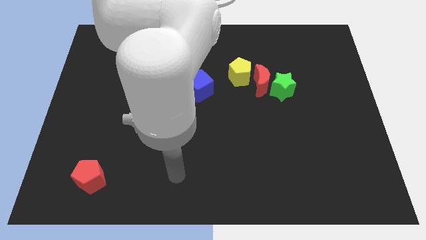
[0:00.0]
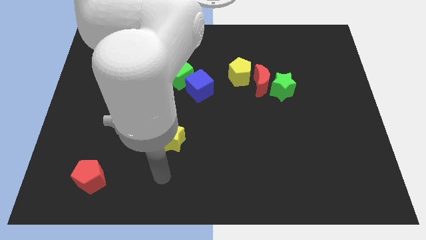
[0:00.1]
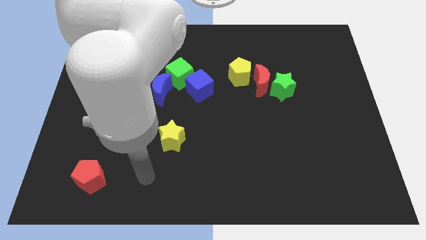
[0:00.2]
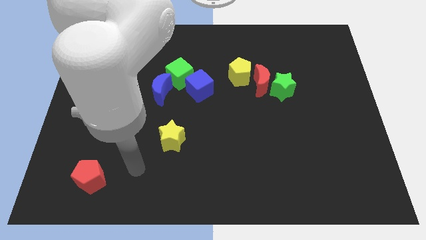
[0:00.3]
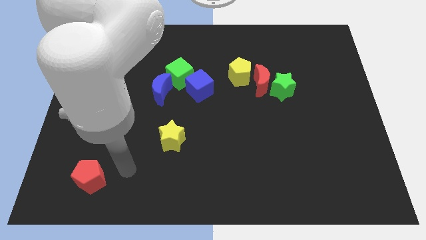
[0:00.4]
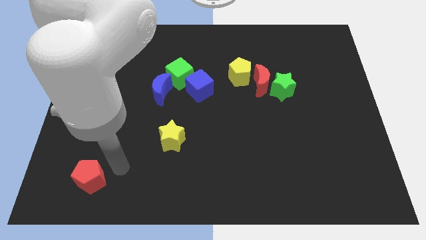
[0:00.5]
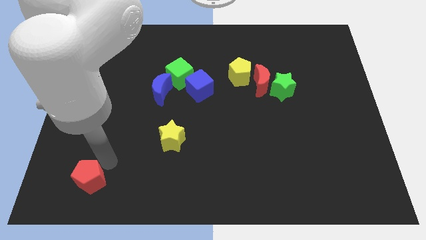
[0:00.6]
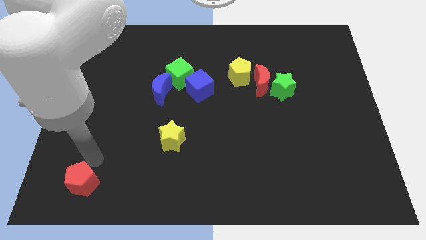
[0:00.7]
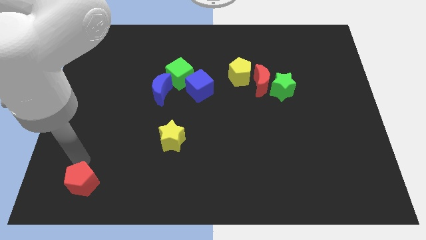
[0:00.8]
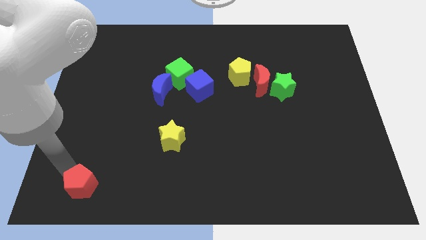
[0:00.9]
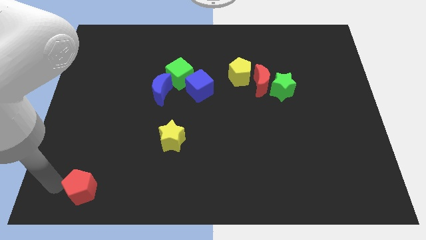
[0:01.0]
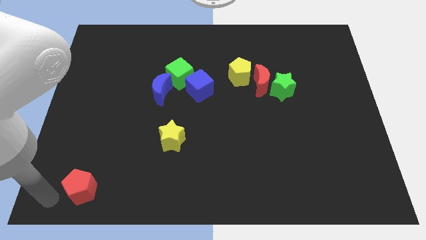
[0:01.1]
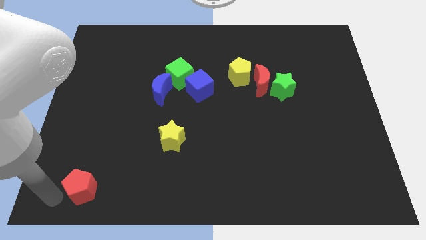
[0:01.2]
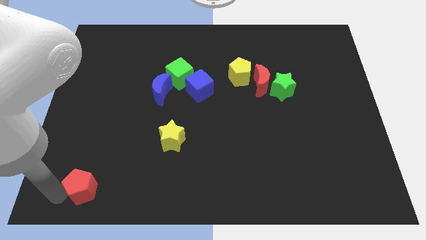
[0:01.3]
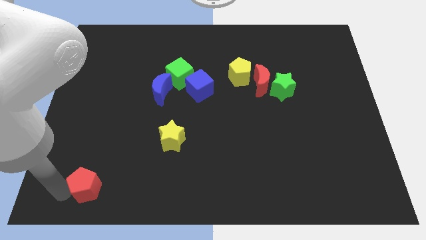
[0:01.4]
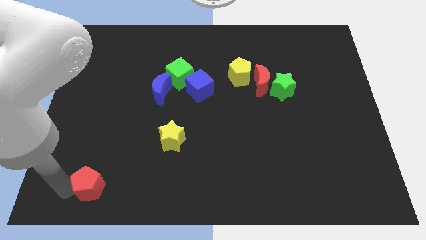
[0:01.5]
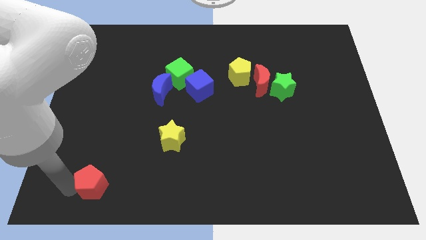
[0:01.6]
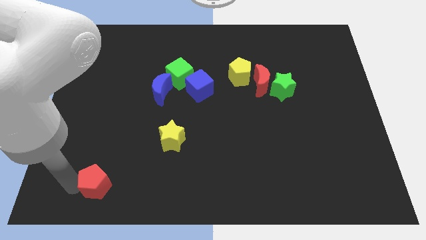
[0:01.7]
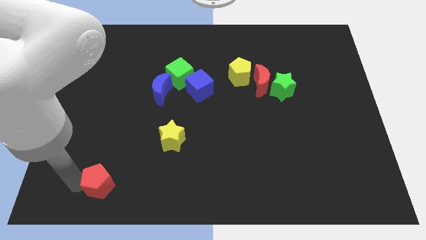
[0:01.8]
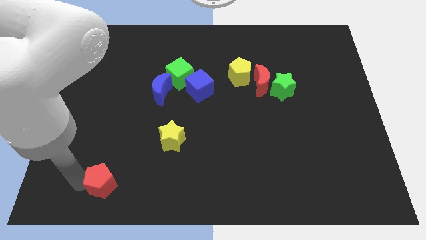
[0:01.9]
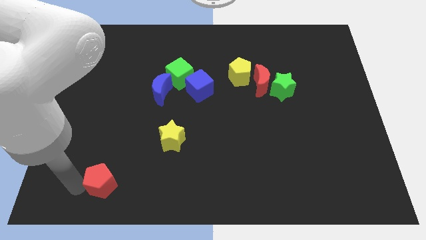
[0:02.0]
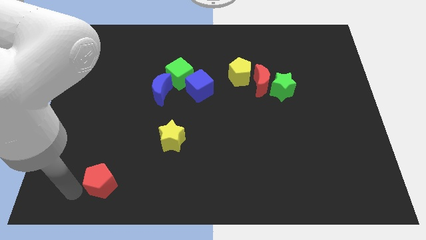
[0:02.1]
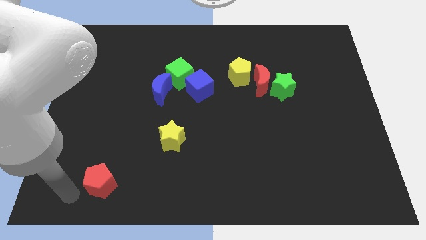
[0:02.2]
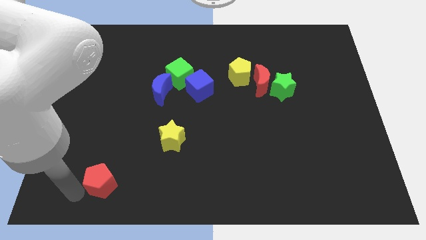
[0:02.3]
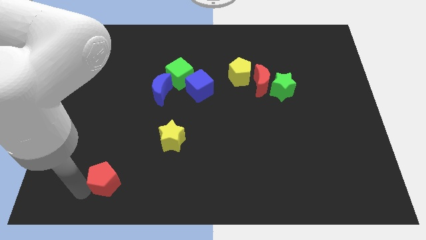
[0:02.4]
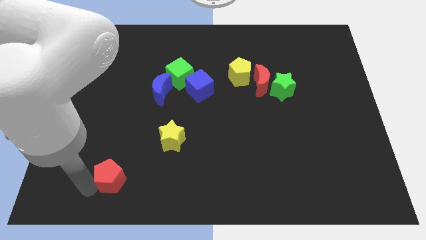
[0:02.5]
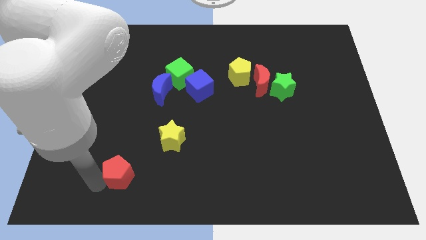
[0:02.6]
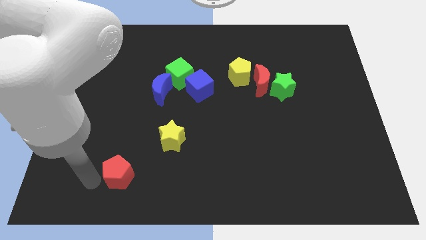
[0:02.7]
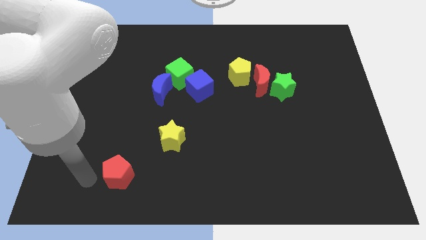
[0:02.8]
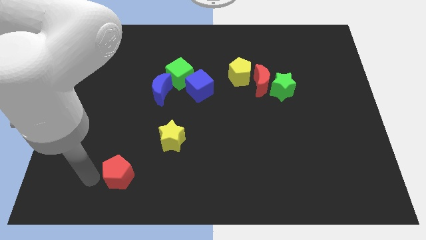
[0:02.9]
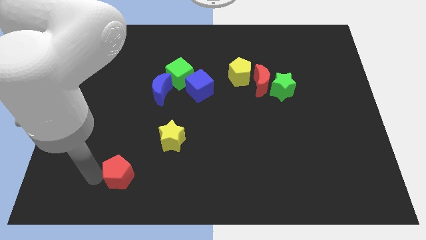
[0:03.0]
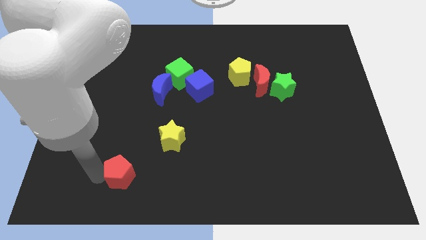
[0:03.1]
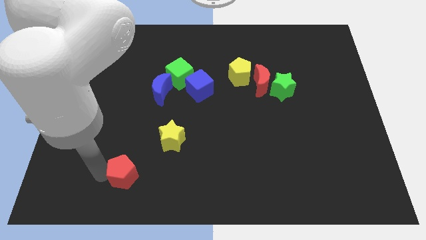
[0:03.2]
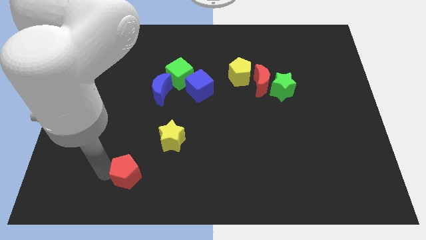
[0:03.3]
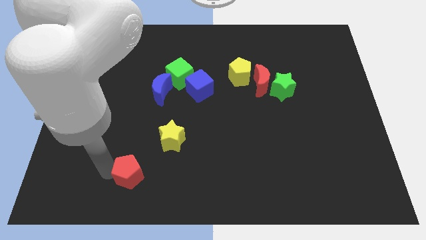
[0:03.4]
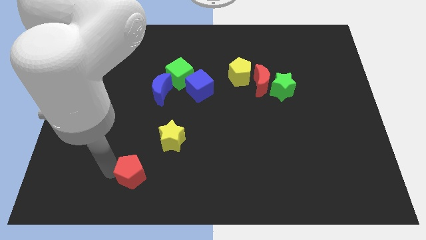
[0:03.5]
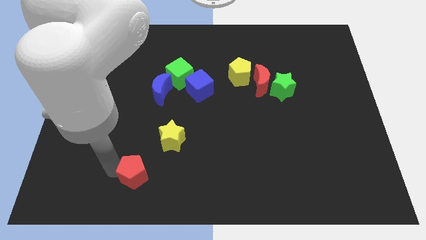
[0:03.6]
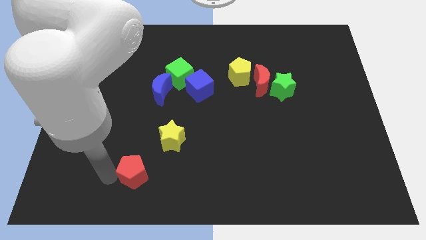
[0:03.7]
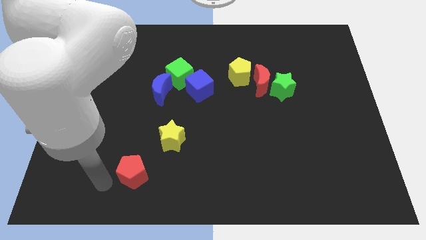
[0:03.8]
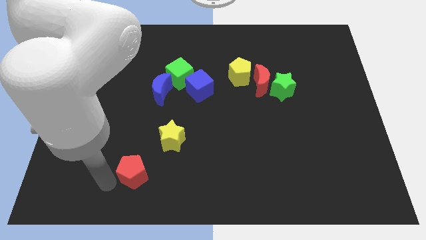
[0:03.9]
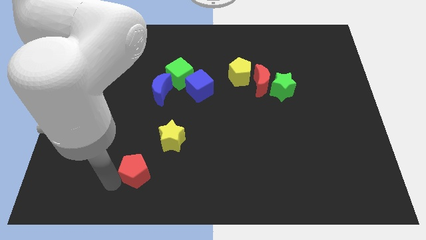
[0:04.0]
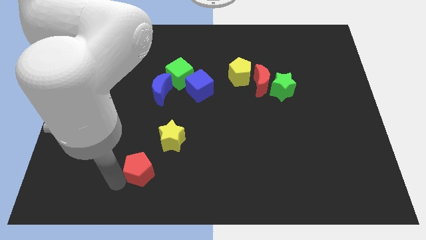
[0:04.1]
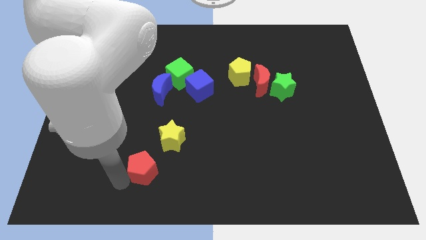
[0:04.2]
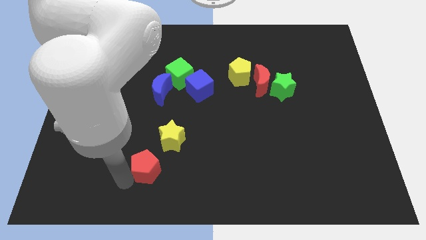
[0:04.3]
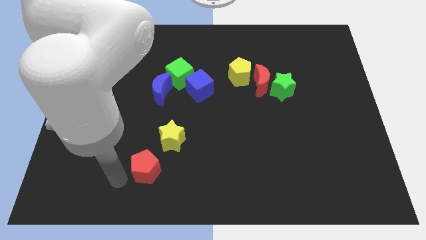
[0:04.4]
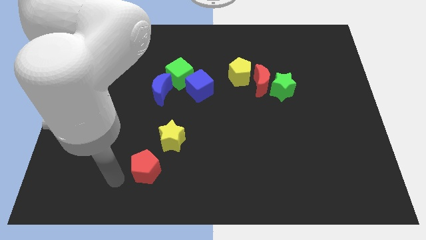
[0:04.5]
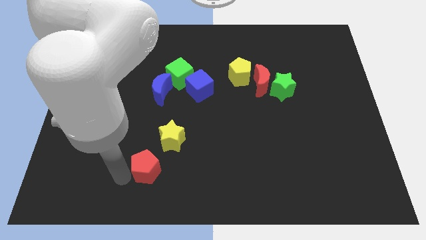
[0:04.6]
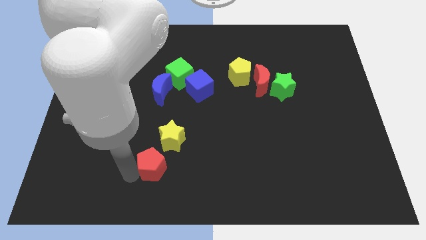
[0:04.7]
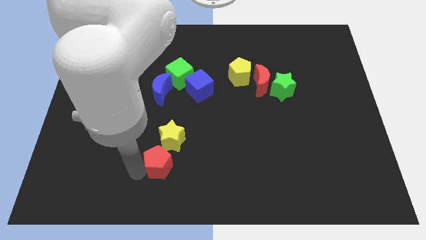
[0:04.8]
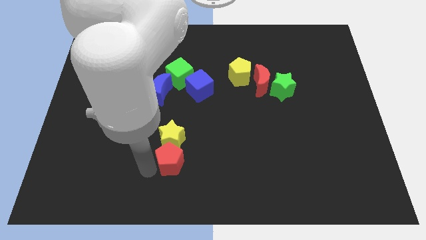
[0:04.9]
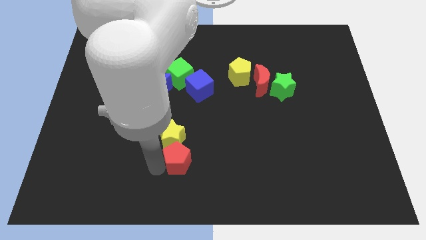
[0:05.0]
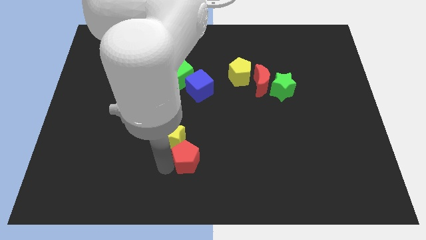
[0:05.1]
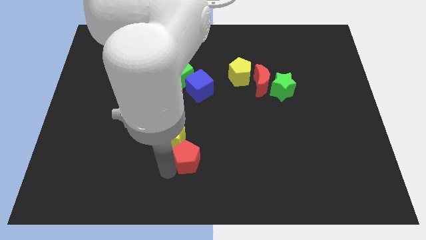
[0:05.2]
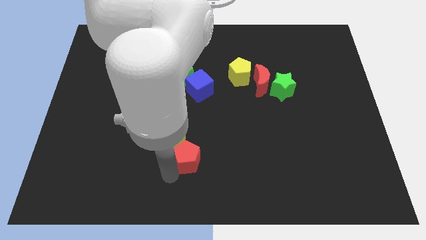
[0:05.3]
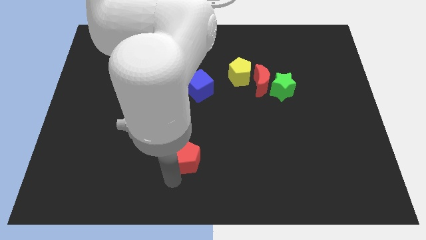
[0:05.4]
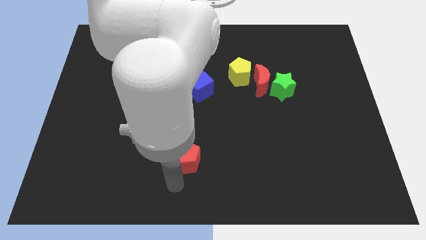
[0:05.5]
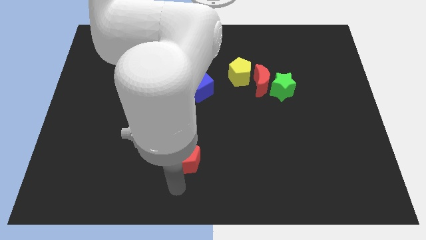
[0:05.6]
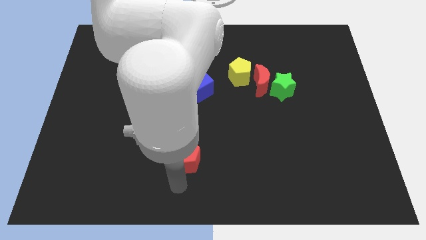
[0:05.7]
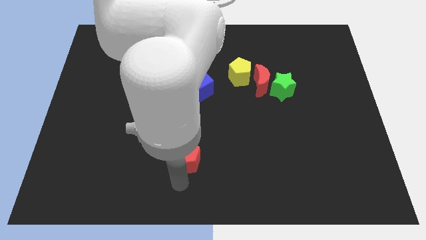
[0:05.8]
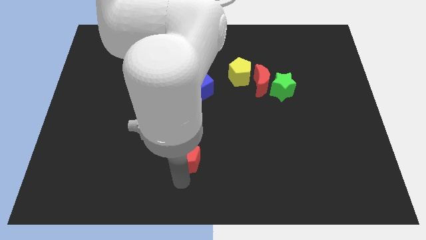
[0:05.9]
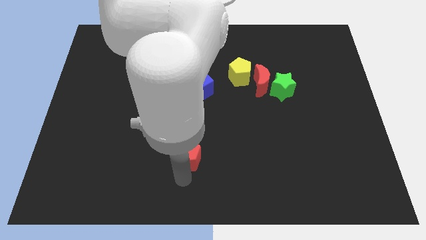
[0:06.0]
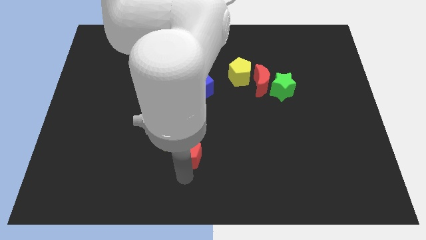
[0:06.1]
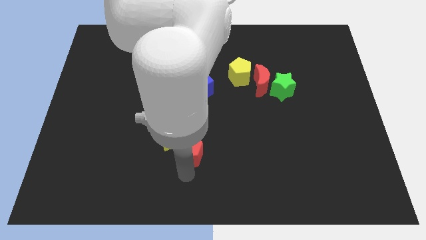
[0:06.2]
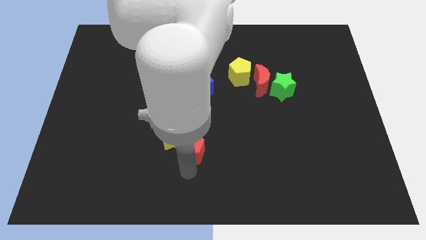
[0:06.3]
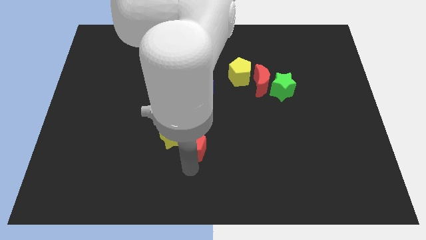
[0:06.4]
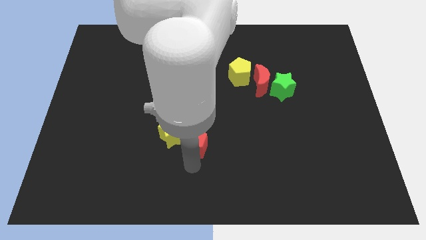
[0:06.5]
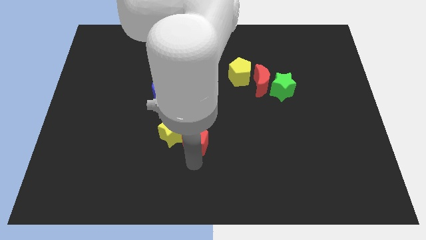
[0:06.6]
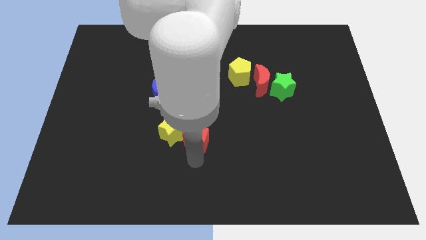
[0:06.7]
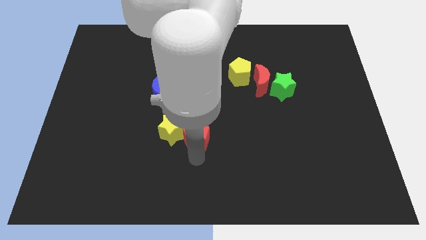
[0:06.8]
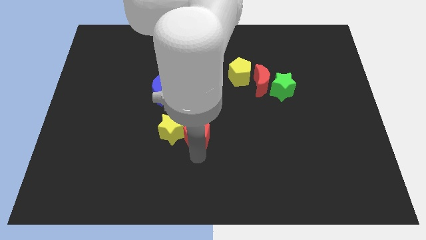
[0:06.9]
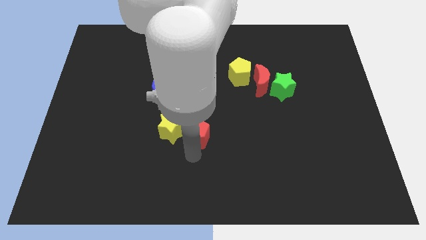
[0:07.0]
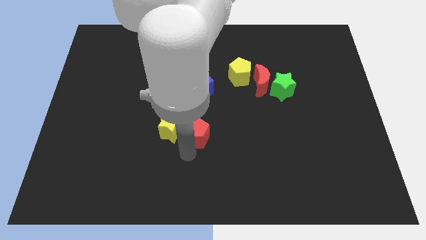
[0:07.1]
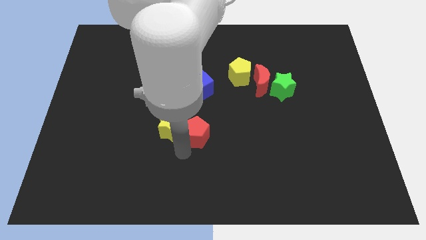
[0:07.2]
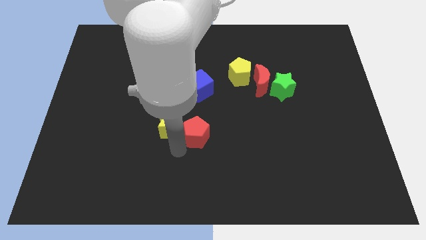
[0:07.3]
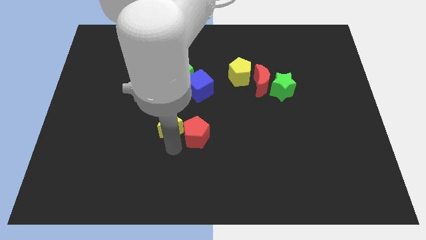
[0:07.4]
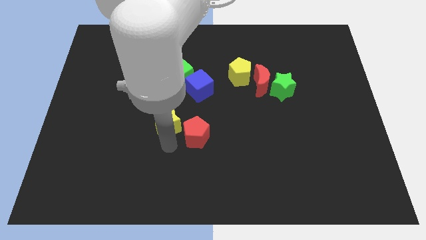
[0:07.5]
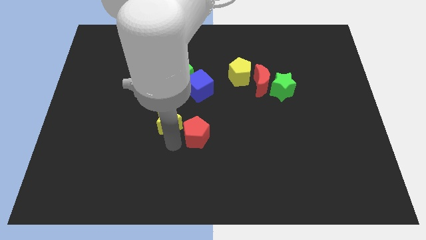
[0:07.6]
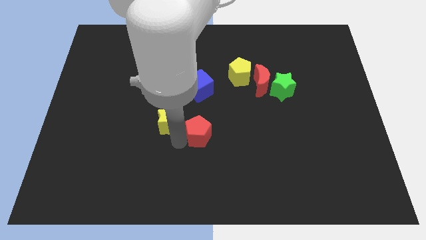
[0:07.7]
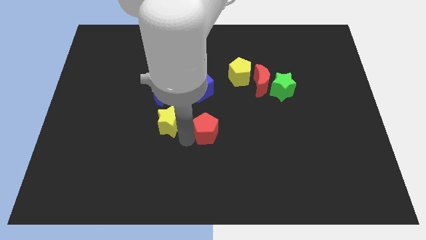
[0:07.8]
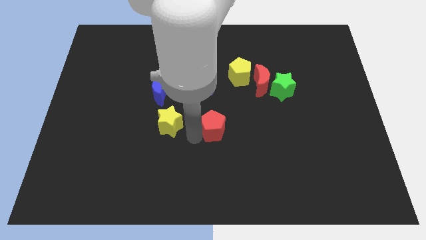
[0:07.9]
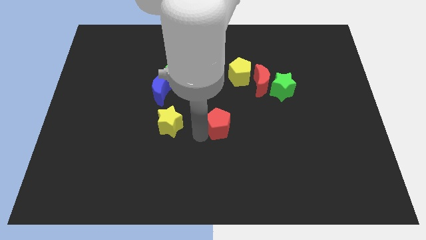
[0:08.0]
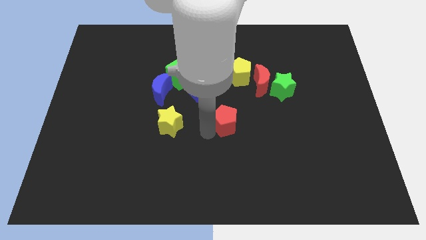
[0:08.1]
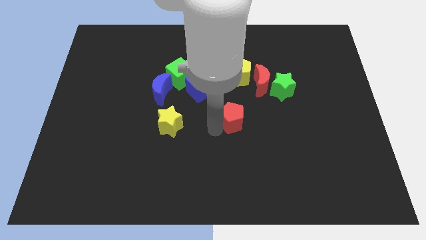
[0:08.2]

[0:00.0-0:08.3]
put the red pentagon to the bottom side of the yellow pentagon
